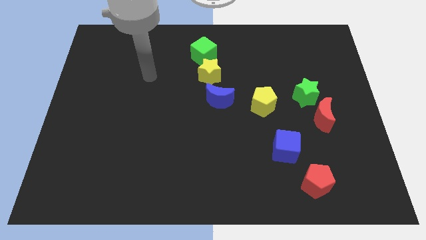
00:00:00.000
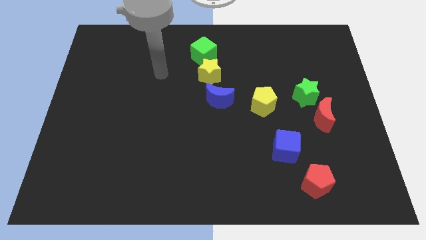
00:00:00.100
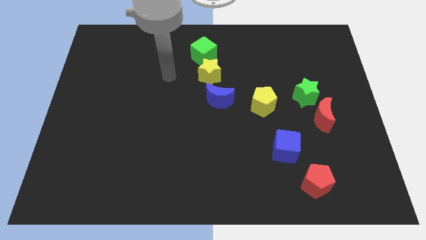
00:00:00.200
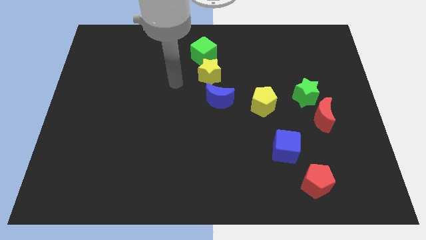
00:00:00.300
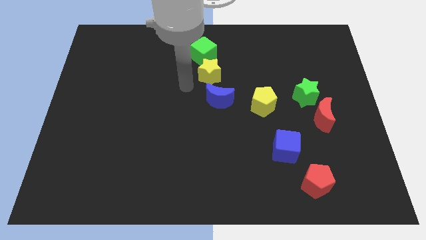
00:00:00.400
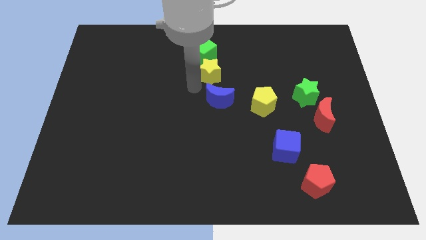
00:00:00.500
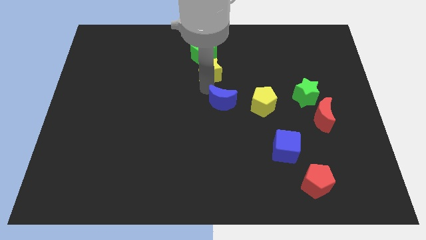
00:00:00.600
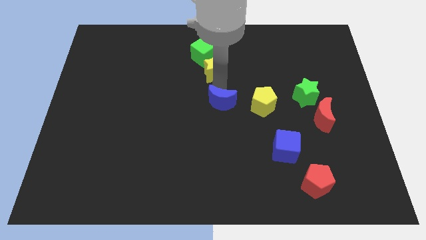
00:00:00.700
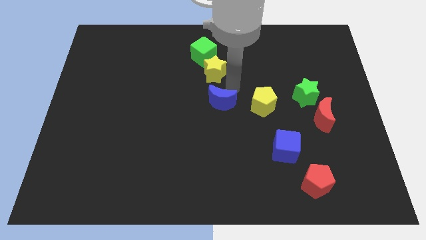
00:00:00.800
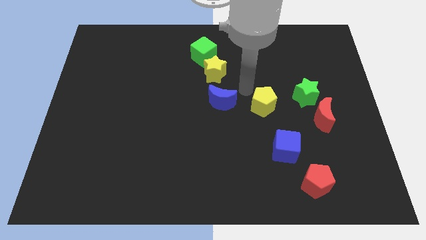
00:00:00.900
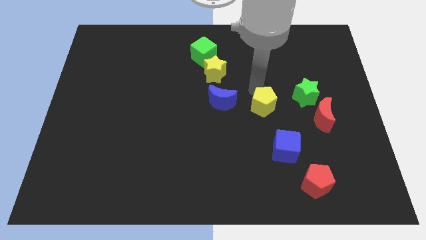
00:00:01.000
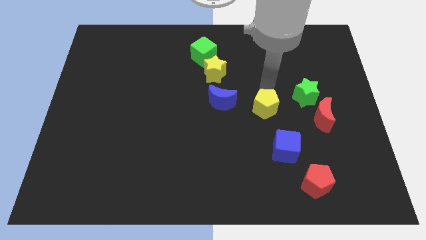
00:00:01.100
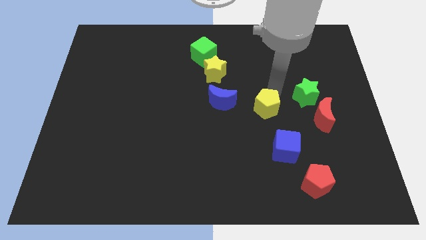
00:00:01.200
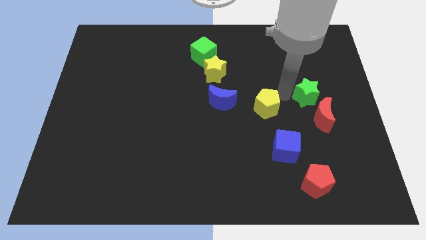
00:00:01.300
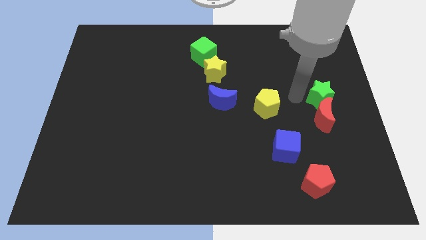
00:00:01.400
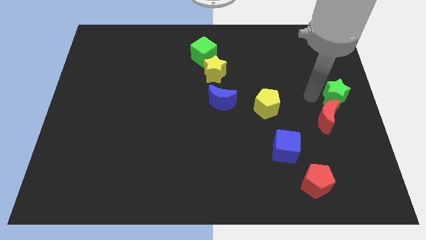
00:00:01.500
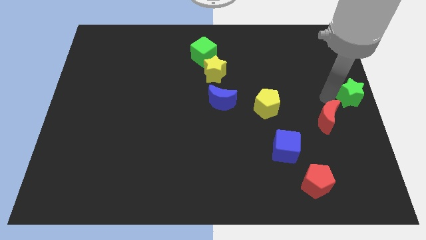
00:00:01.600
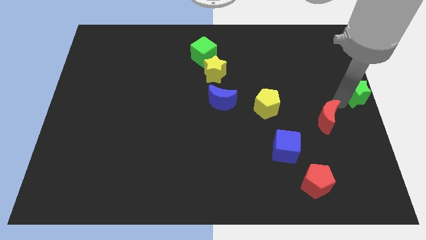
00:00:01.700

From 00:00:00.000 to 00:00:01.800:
separate the red moon from the green star

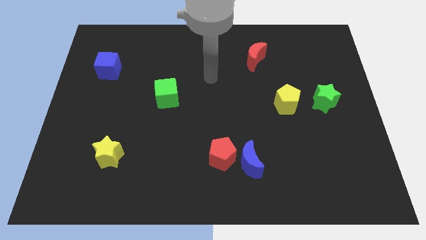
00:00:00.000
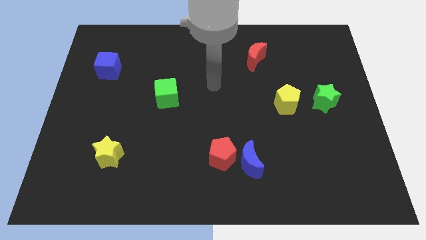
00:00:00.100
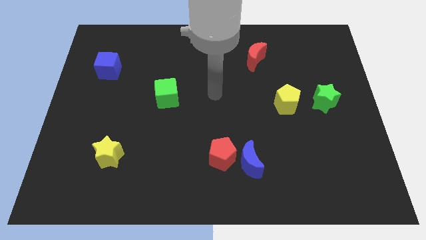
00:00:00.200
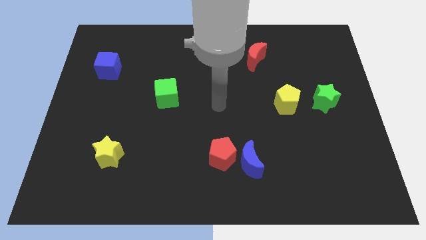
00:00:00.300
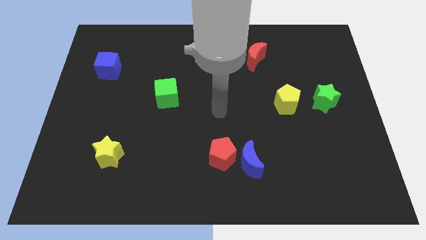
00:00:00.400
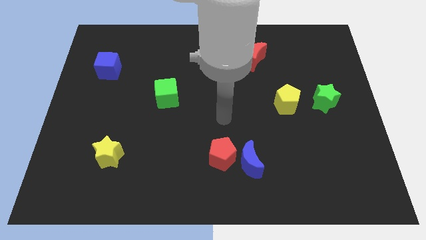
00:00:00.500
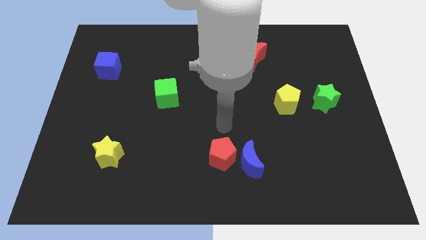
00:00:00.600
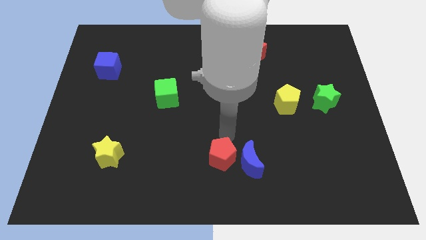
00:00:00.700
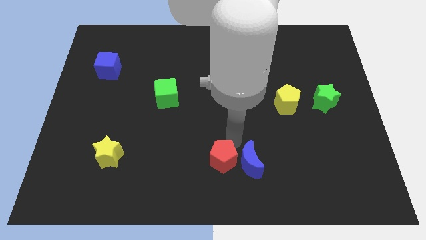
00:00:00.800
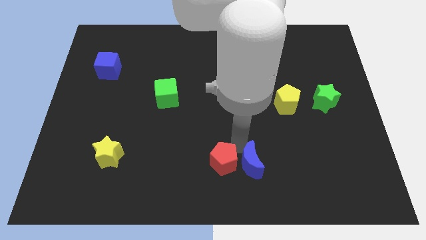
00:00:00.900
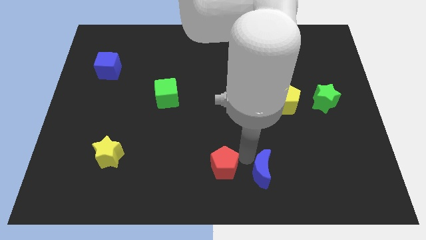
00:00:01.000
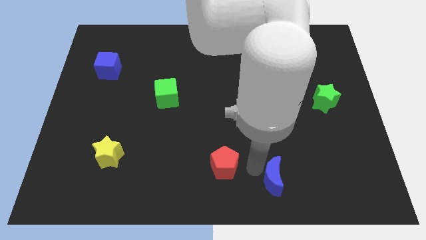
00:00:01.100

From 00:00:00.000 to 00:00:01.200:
move the red pentagon away from the blue moon

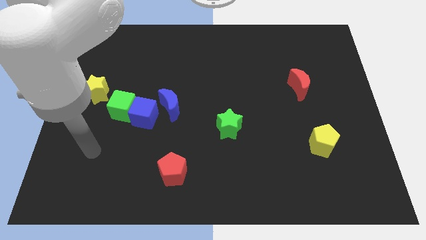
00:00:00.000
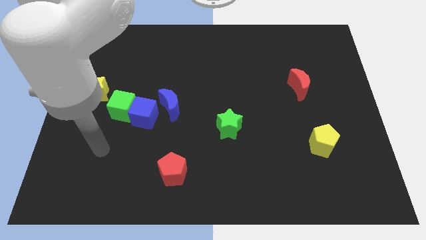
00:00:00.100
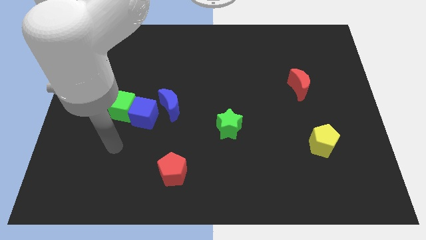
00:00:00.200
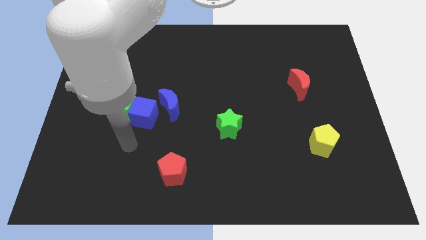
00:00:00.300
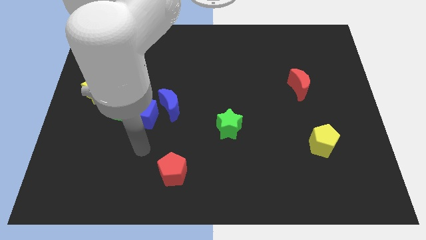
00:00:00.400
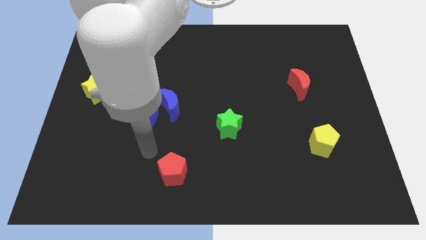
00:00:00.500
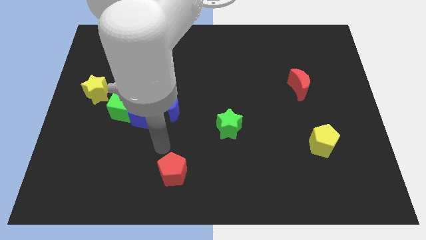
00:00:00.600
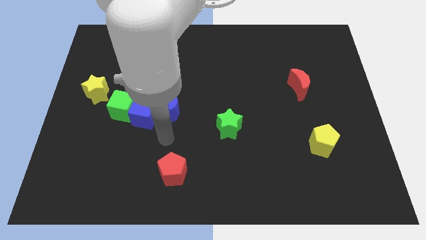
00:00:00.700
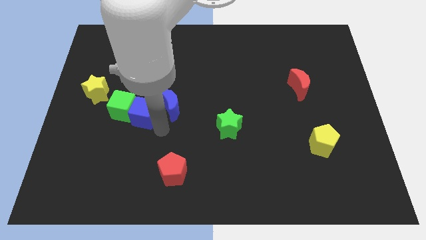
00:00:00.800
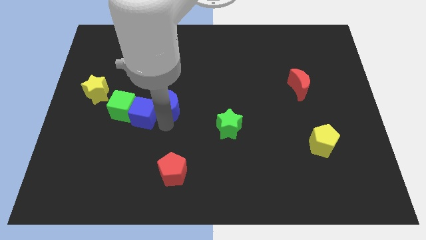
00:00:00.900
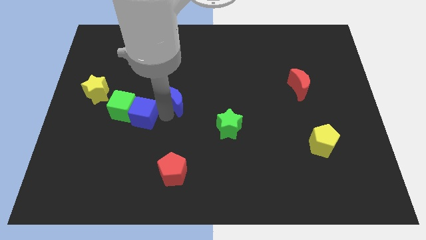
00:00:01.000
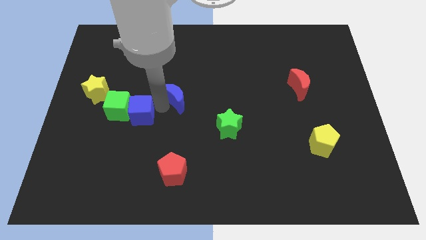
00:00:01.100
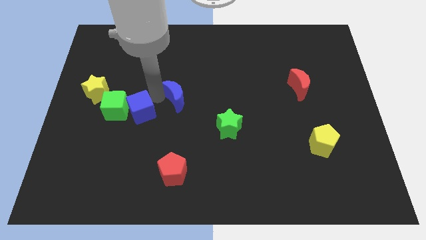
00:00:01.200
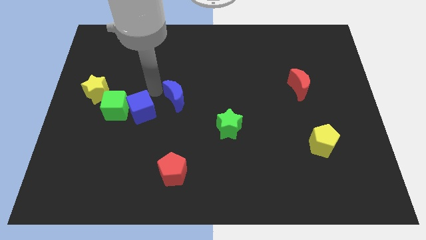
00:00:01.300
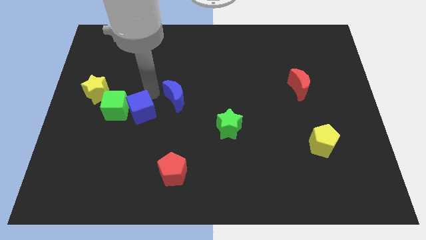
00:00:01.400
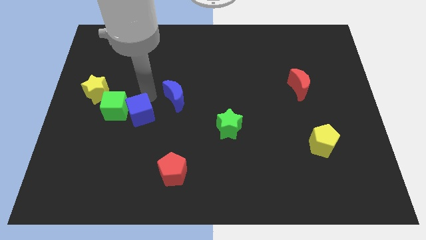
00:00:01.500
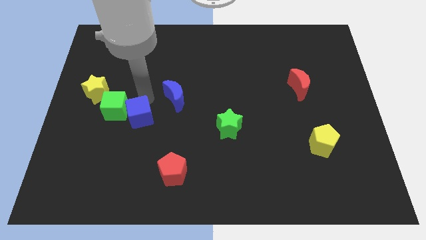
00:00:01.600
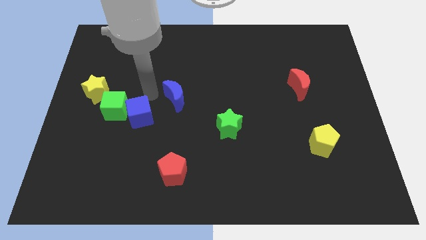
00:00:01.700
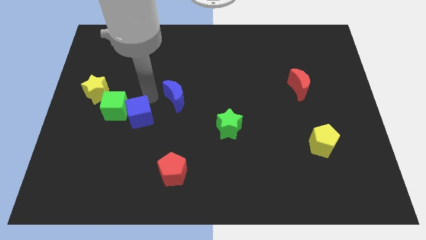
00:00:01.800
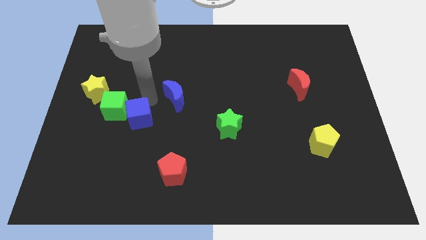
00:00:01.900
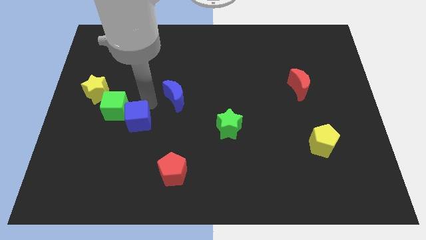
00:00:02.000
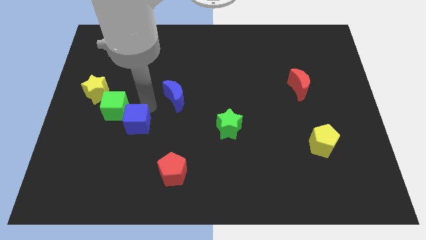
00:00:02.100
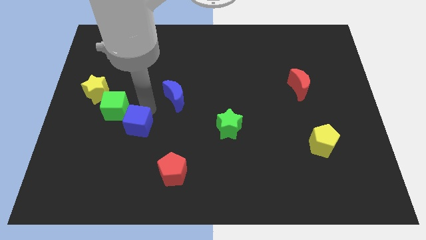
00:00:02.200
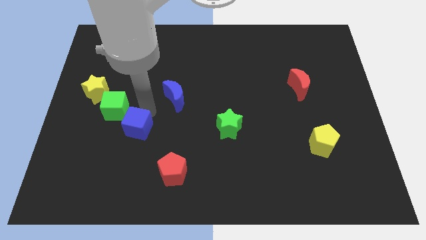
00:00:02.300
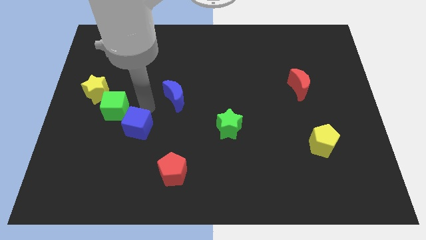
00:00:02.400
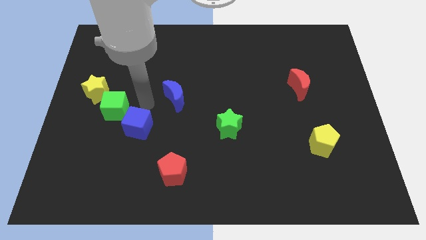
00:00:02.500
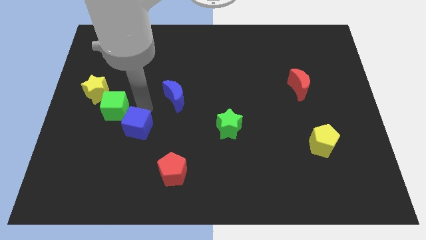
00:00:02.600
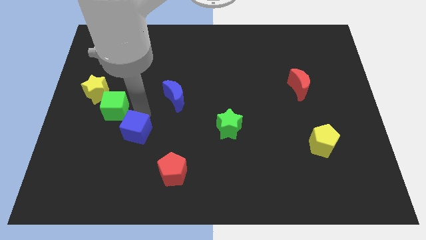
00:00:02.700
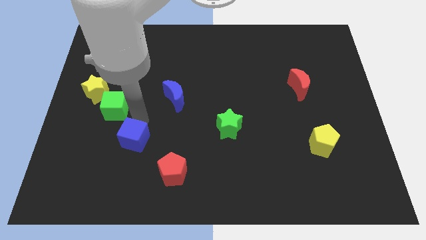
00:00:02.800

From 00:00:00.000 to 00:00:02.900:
move the blue cube away from the green cube and blue moon

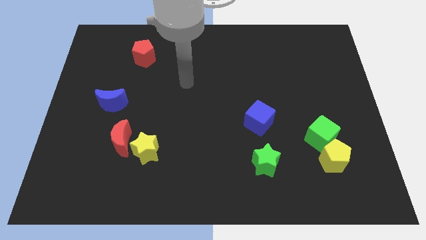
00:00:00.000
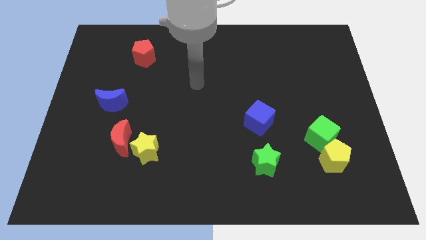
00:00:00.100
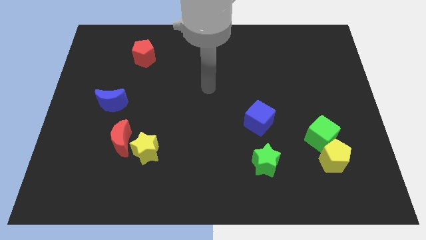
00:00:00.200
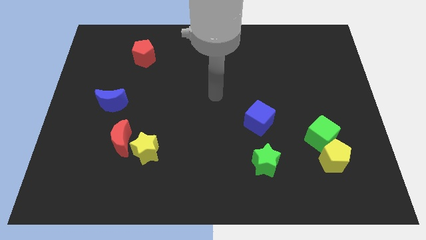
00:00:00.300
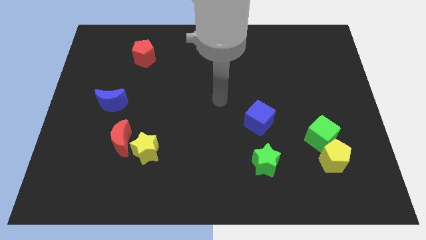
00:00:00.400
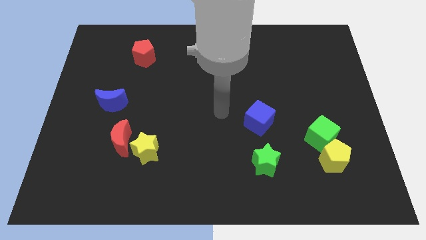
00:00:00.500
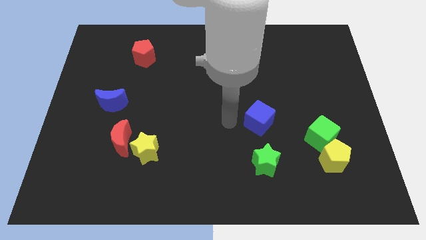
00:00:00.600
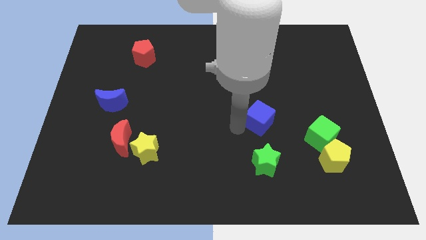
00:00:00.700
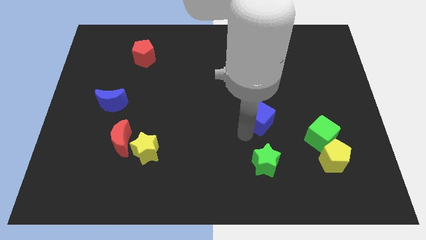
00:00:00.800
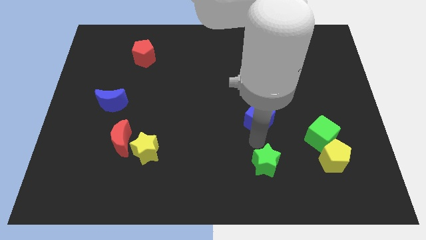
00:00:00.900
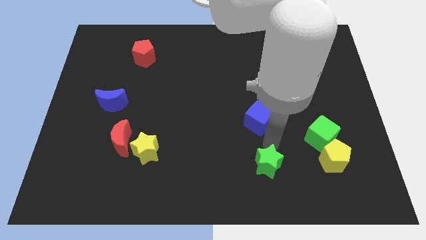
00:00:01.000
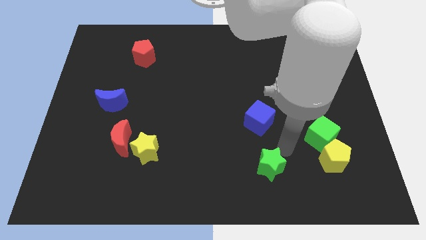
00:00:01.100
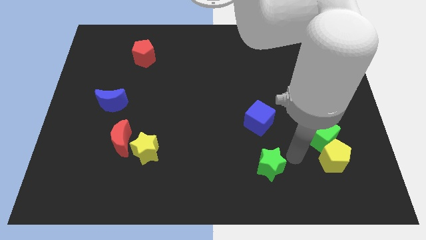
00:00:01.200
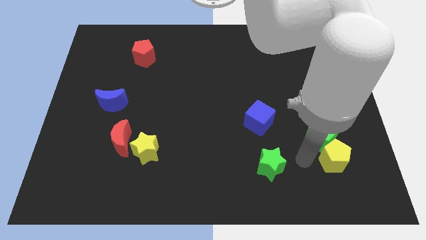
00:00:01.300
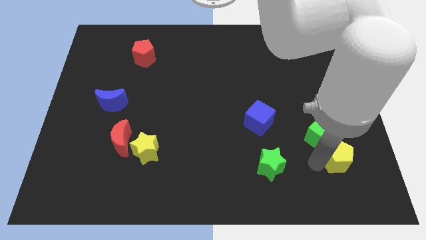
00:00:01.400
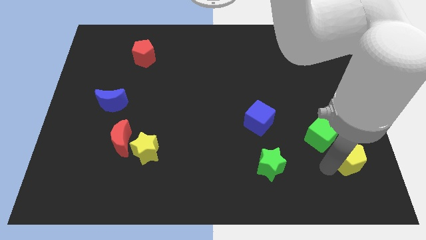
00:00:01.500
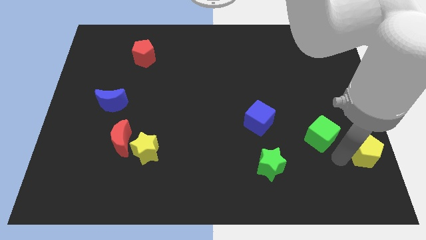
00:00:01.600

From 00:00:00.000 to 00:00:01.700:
pull the green cube apart from the yellow pentagon

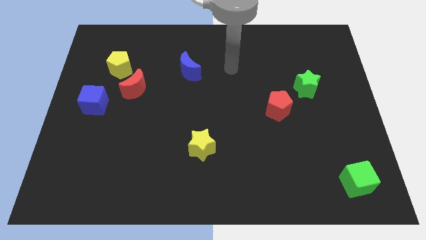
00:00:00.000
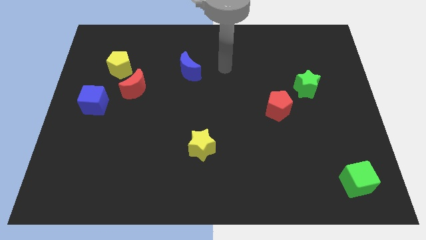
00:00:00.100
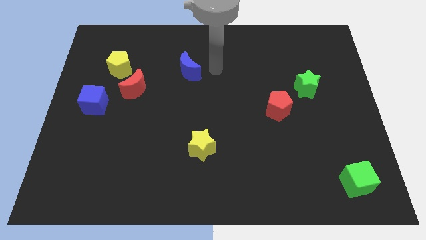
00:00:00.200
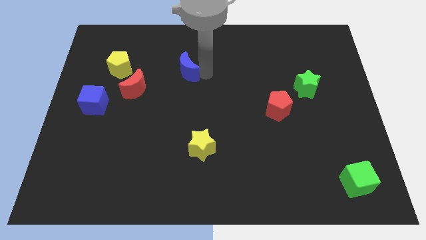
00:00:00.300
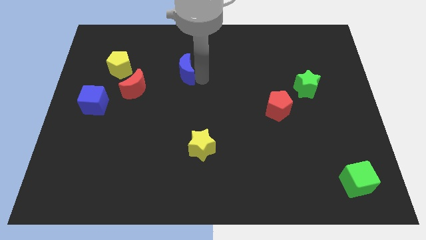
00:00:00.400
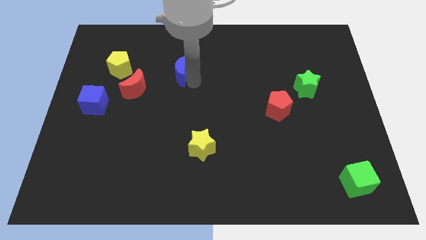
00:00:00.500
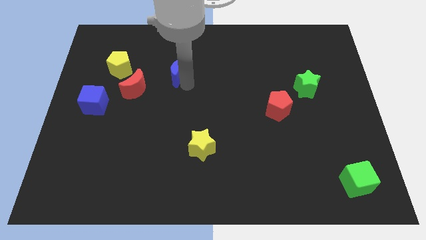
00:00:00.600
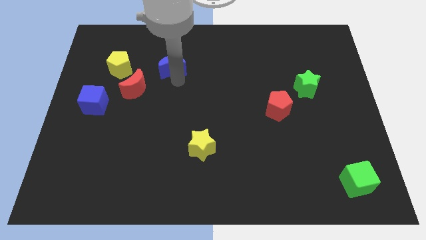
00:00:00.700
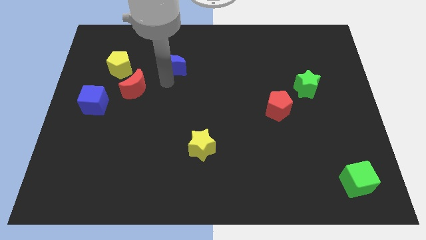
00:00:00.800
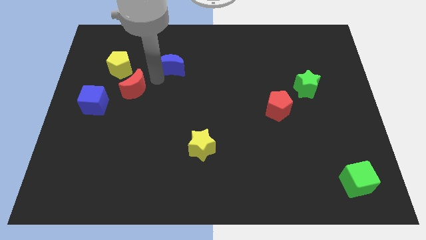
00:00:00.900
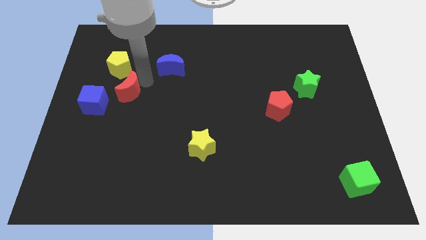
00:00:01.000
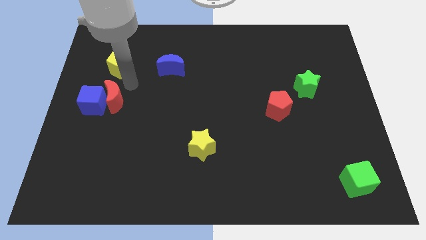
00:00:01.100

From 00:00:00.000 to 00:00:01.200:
move the yellow pentagon away from the red moon

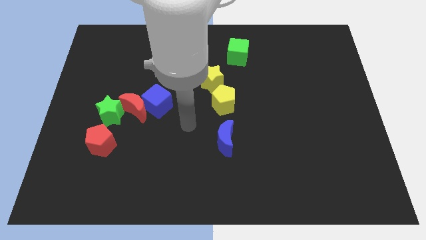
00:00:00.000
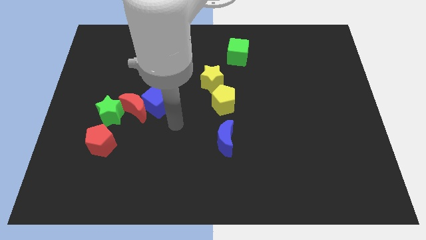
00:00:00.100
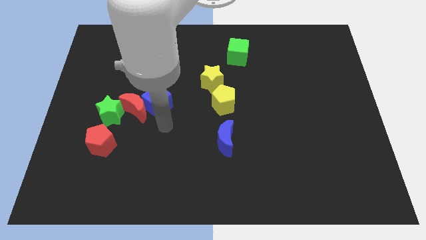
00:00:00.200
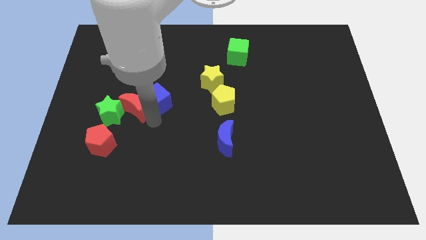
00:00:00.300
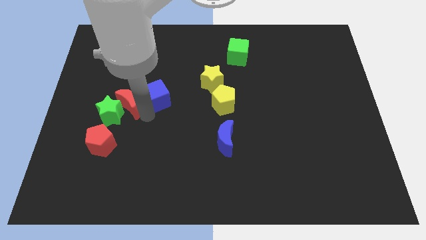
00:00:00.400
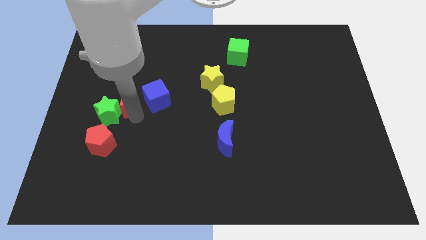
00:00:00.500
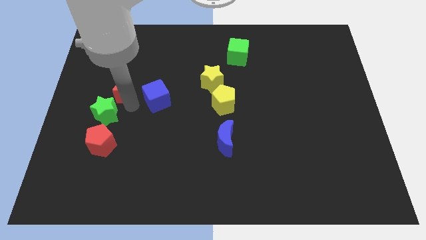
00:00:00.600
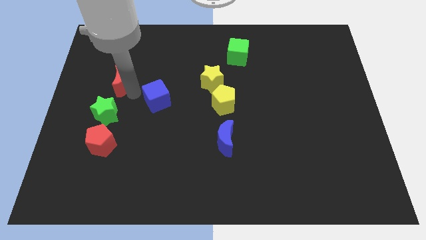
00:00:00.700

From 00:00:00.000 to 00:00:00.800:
separate the blue cube from the red moon
